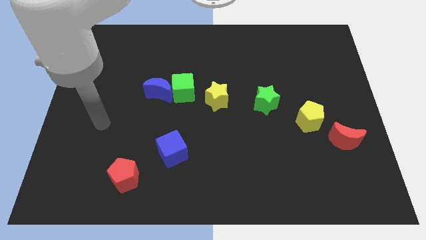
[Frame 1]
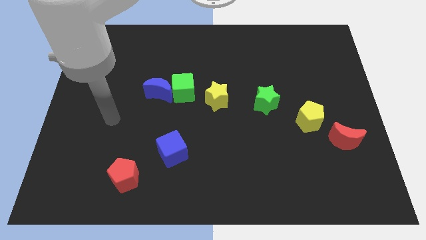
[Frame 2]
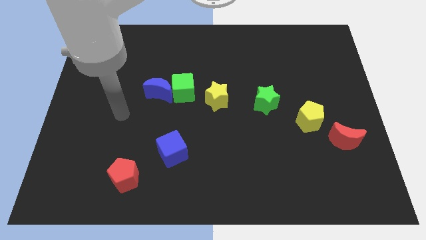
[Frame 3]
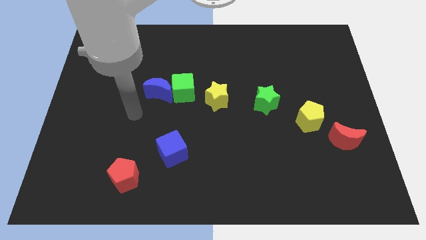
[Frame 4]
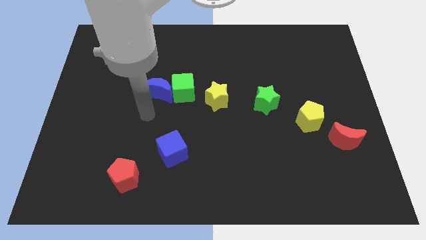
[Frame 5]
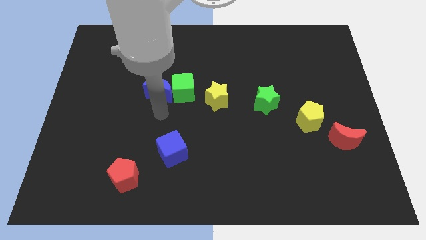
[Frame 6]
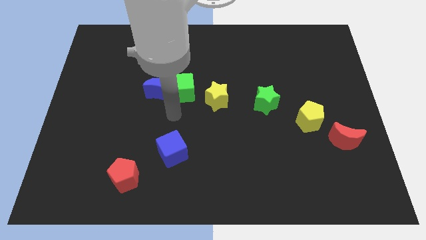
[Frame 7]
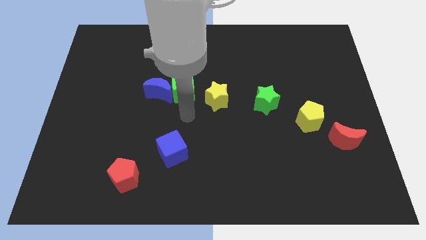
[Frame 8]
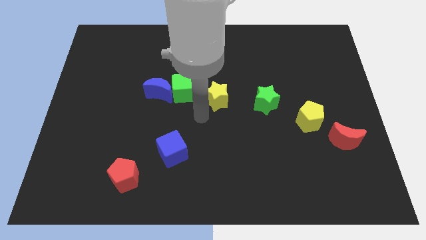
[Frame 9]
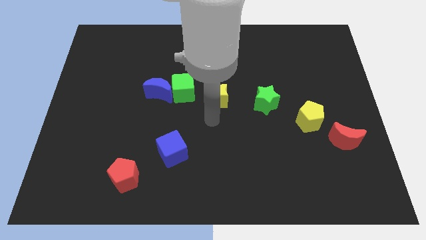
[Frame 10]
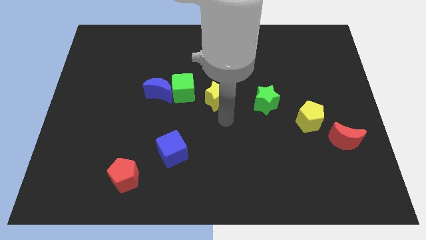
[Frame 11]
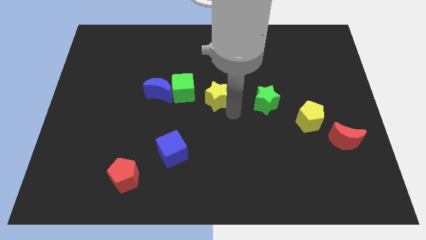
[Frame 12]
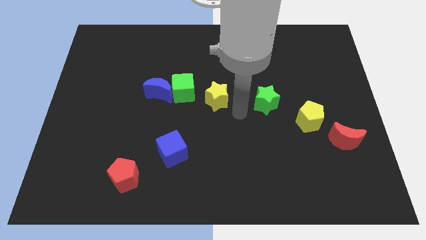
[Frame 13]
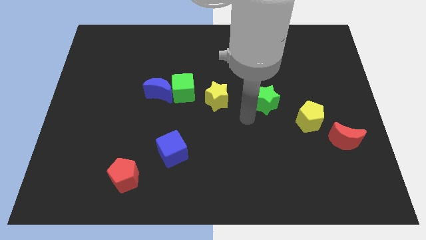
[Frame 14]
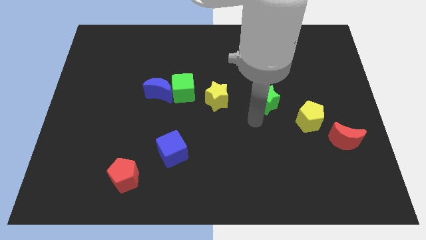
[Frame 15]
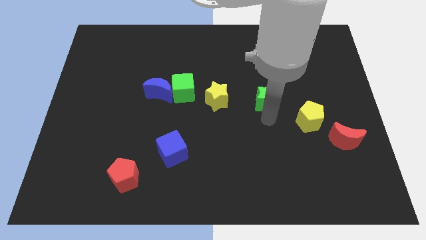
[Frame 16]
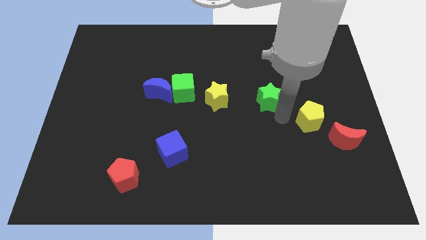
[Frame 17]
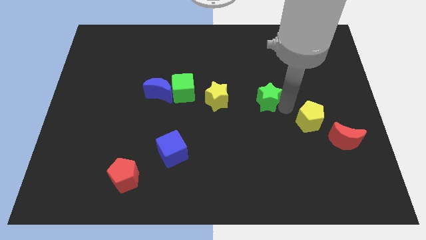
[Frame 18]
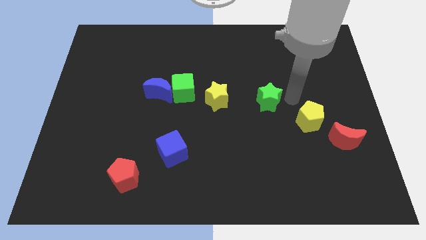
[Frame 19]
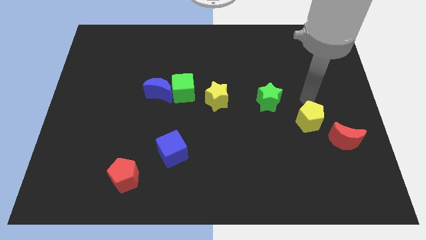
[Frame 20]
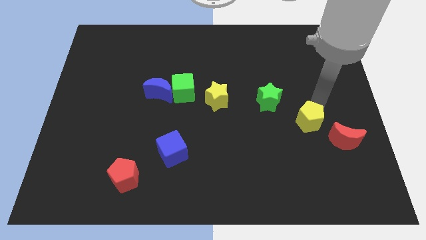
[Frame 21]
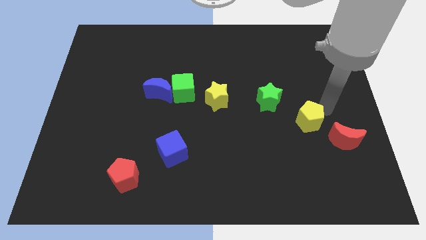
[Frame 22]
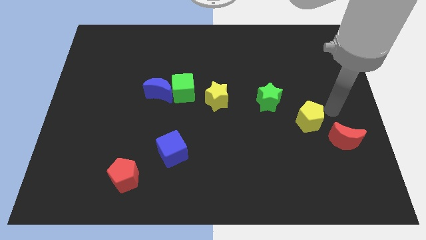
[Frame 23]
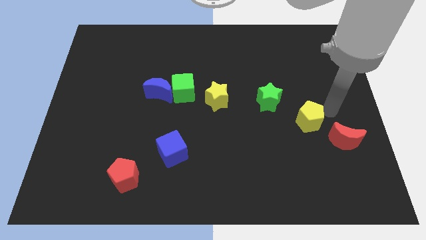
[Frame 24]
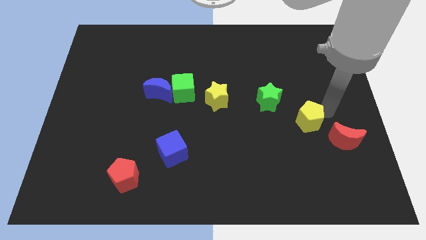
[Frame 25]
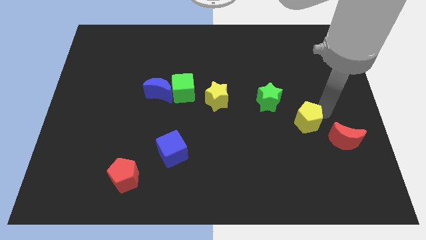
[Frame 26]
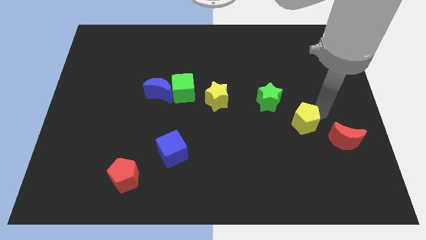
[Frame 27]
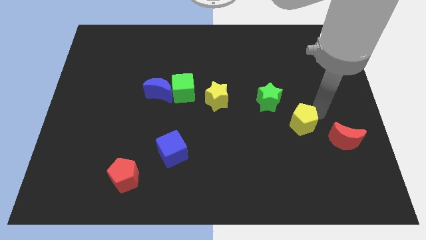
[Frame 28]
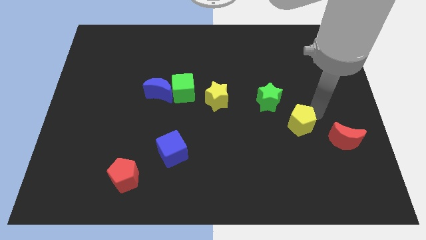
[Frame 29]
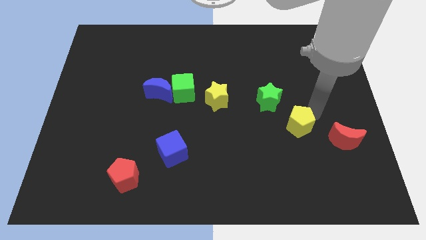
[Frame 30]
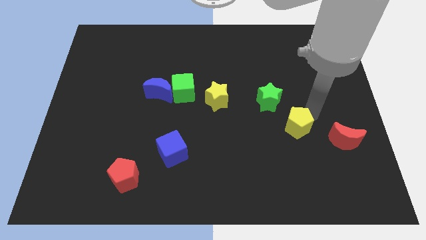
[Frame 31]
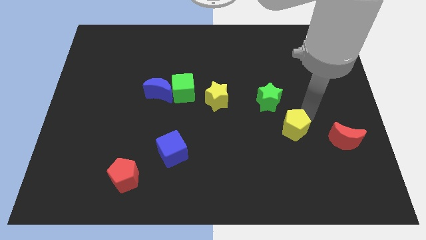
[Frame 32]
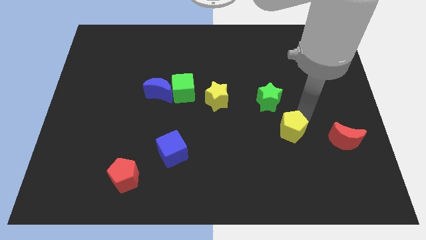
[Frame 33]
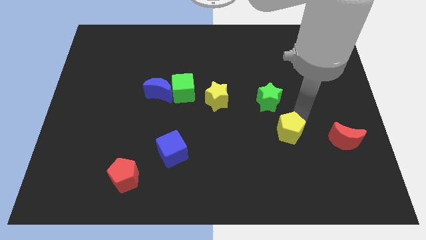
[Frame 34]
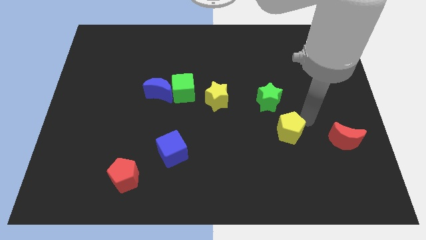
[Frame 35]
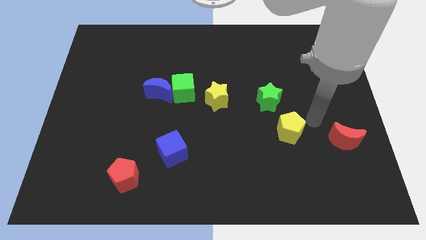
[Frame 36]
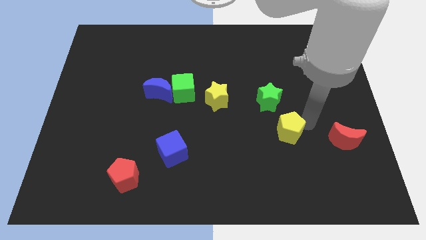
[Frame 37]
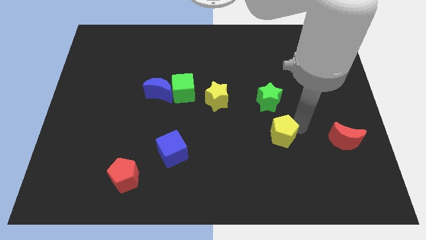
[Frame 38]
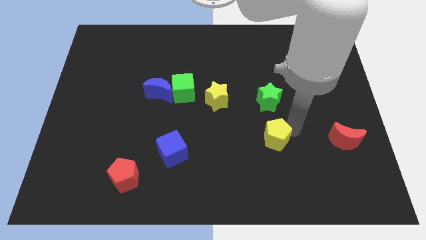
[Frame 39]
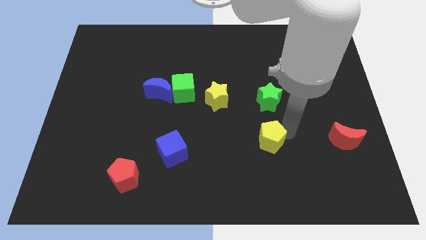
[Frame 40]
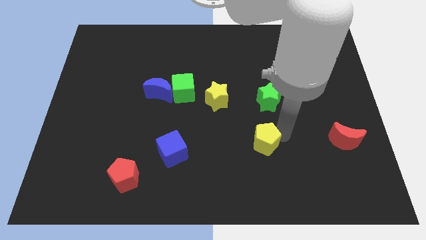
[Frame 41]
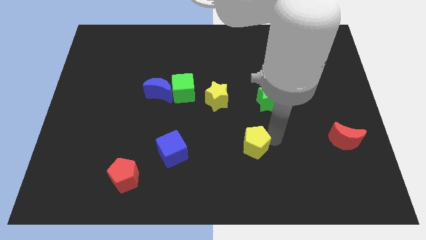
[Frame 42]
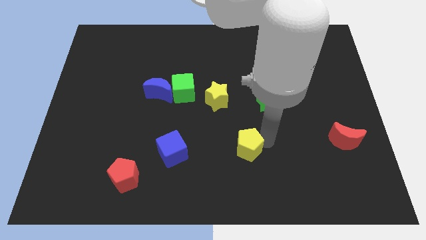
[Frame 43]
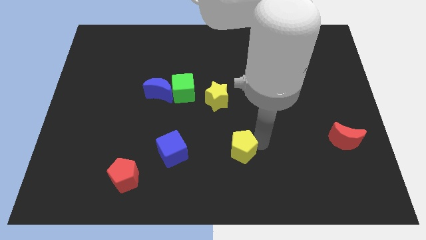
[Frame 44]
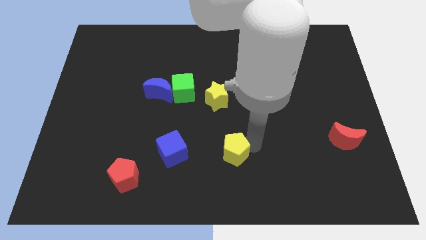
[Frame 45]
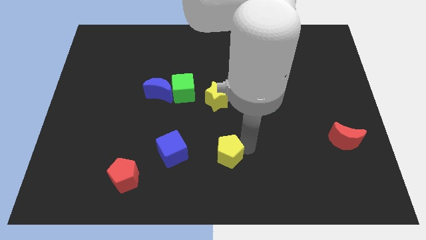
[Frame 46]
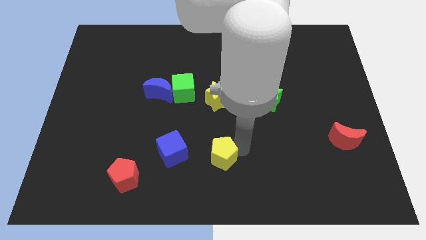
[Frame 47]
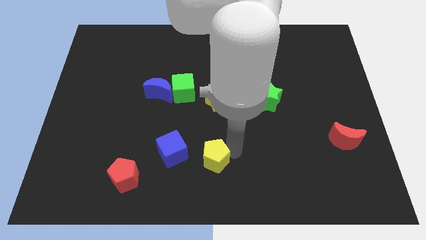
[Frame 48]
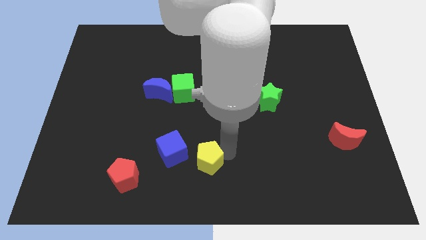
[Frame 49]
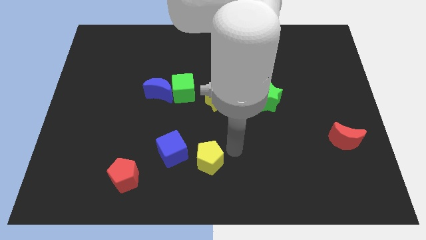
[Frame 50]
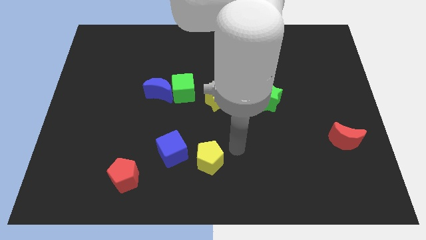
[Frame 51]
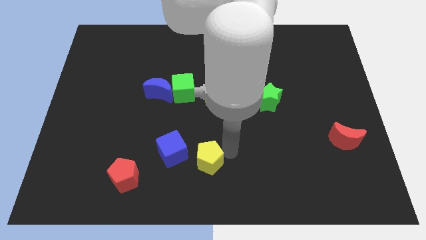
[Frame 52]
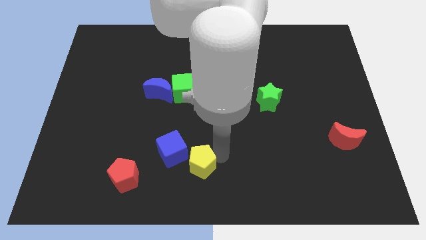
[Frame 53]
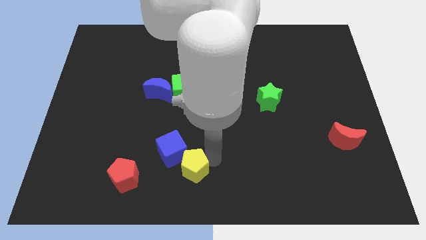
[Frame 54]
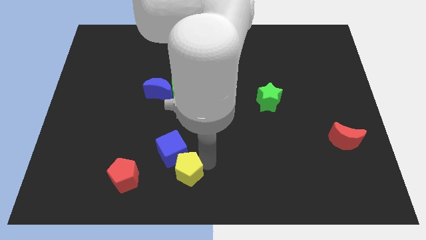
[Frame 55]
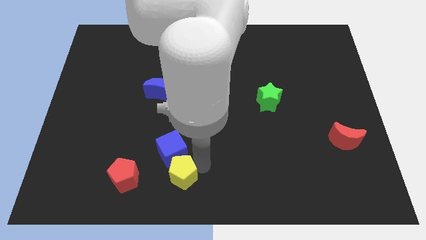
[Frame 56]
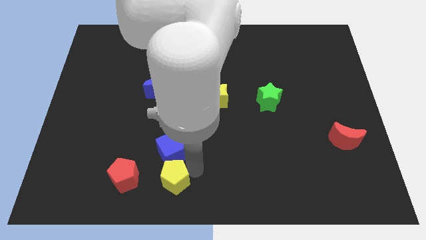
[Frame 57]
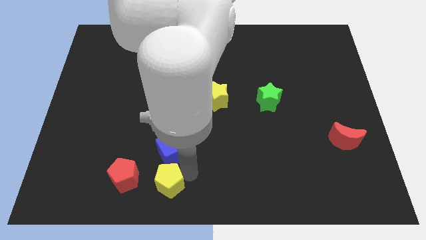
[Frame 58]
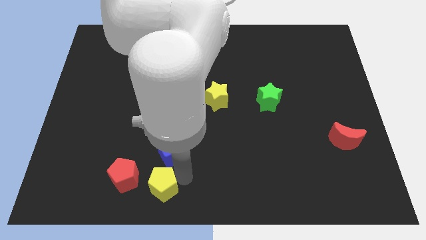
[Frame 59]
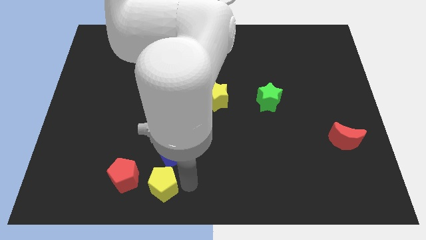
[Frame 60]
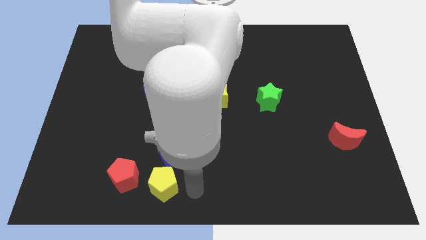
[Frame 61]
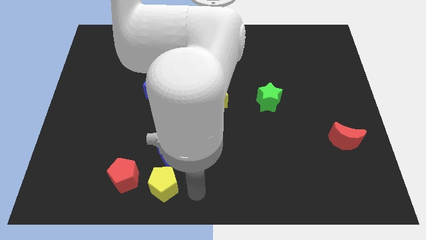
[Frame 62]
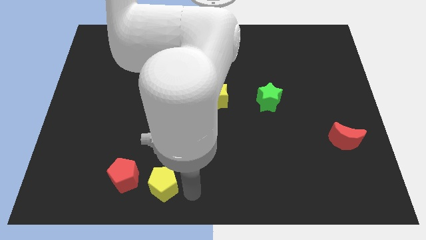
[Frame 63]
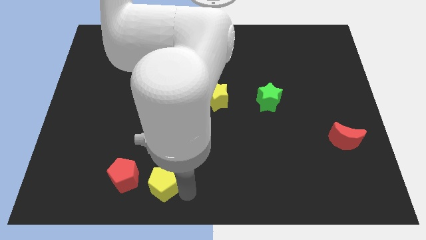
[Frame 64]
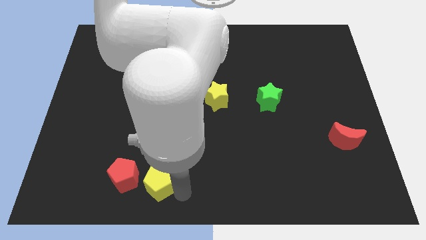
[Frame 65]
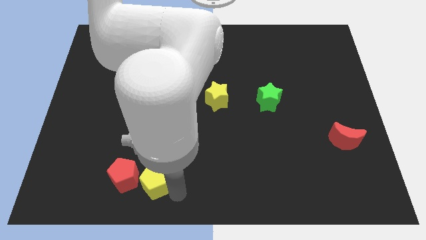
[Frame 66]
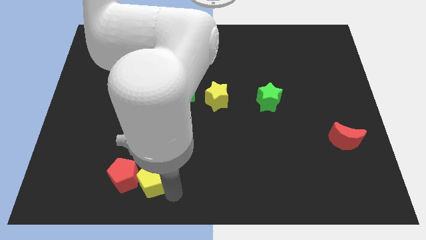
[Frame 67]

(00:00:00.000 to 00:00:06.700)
push the yellow pentagon next to the red pentagon

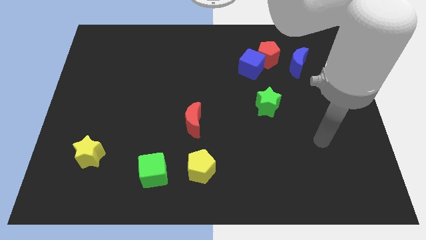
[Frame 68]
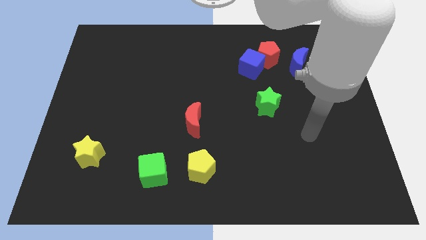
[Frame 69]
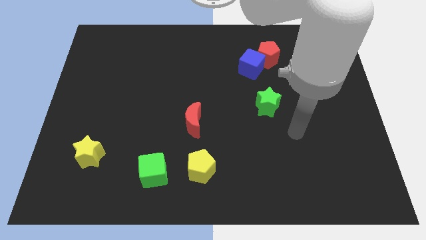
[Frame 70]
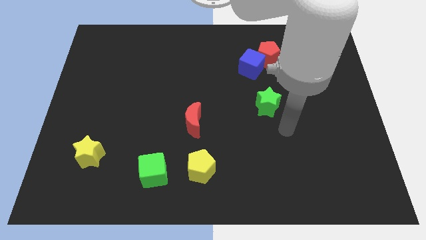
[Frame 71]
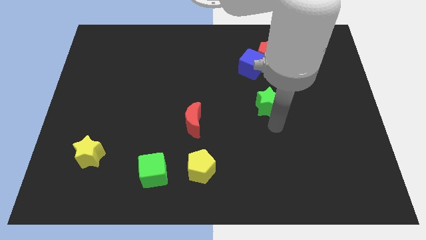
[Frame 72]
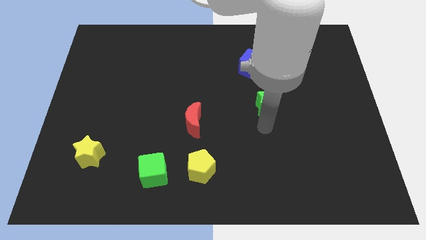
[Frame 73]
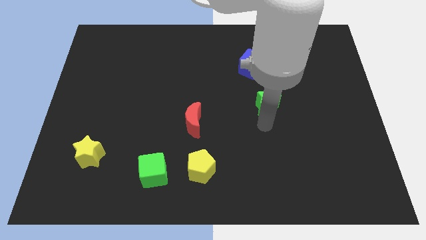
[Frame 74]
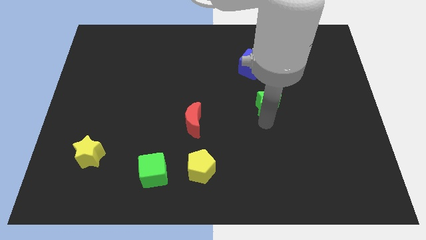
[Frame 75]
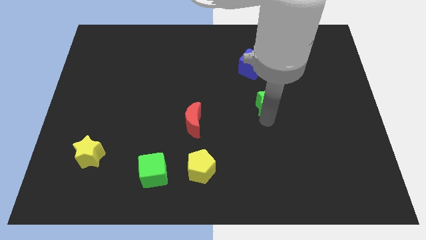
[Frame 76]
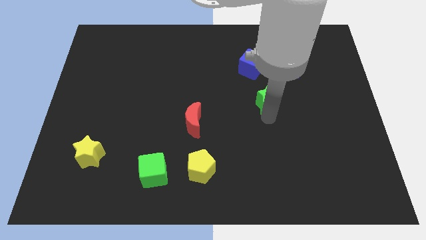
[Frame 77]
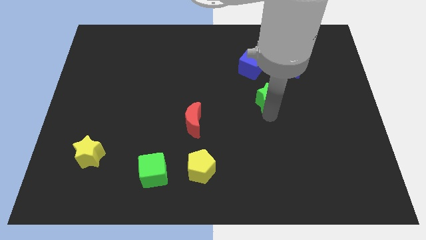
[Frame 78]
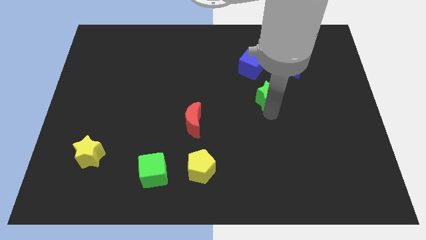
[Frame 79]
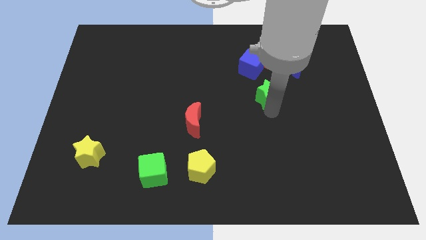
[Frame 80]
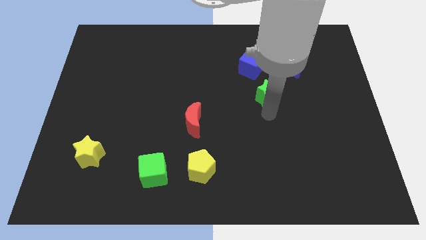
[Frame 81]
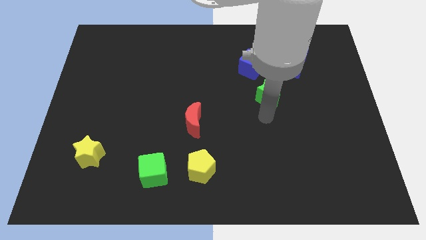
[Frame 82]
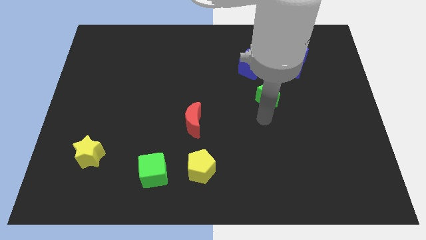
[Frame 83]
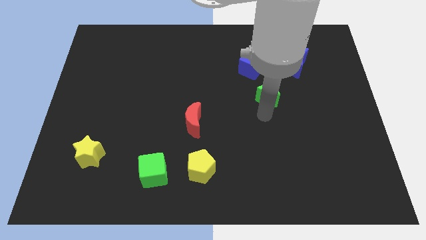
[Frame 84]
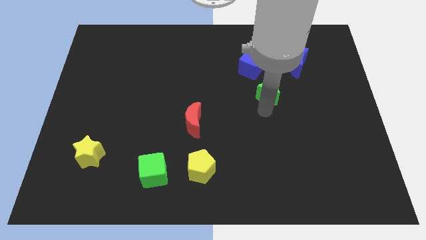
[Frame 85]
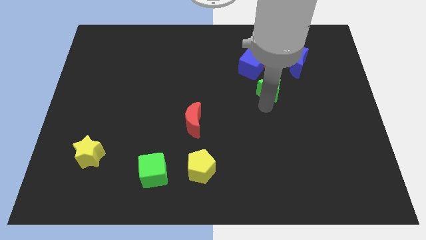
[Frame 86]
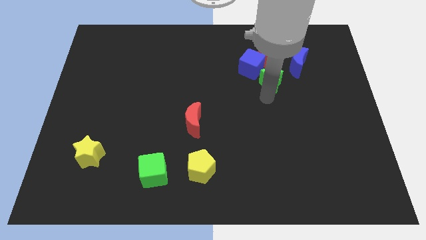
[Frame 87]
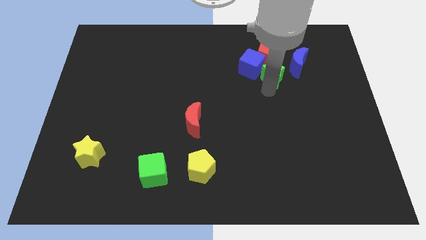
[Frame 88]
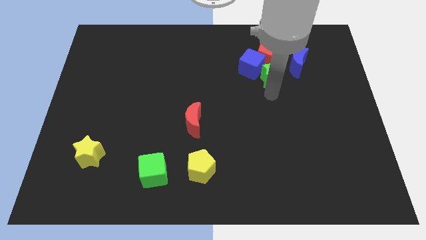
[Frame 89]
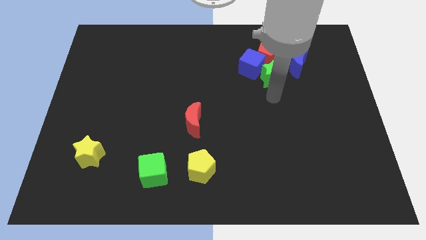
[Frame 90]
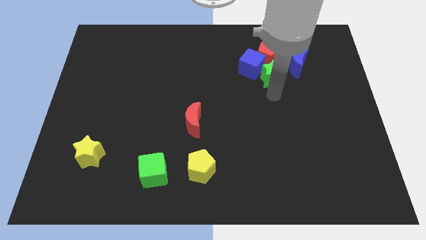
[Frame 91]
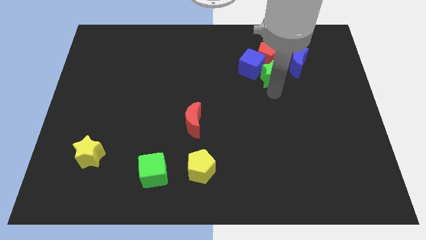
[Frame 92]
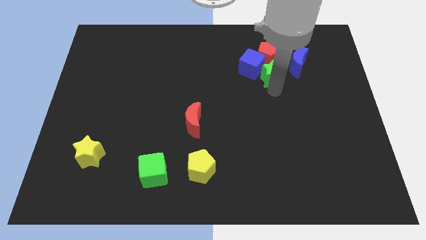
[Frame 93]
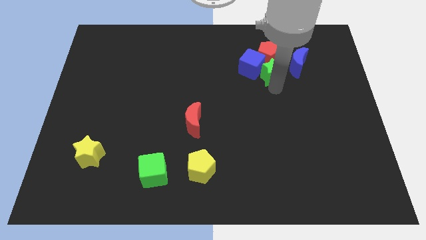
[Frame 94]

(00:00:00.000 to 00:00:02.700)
put the green star to the red pentagon
